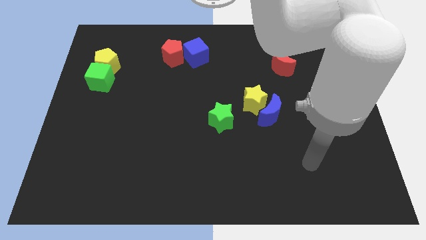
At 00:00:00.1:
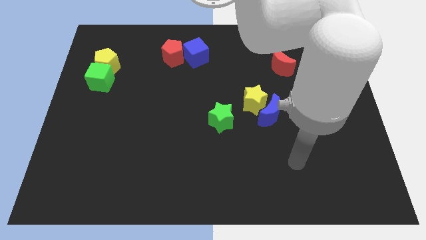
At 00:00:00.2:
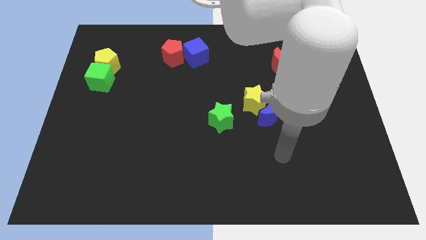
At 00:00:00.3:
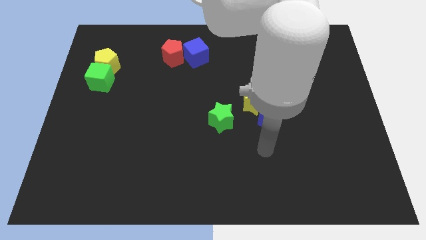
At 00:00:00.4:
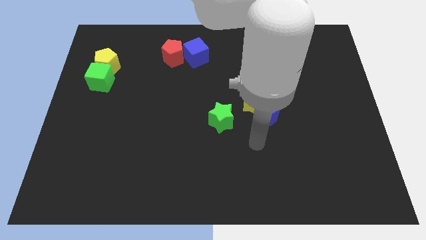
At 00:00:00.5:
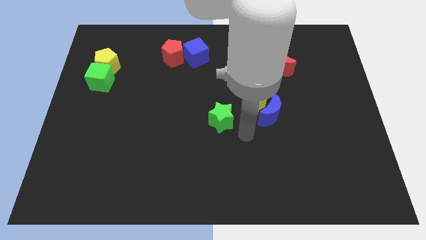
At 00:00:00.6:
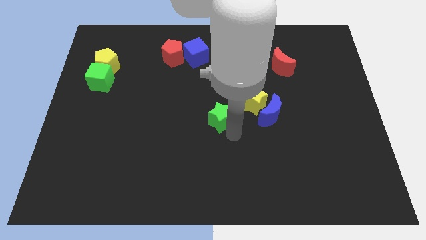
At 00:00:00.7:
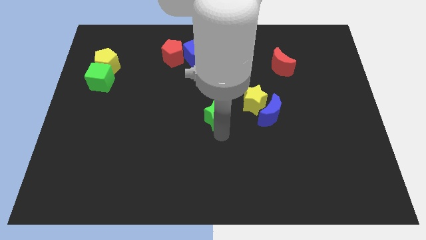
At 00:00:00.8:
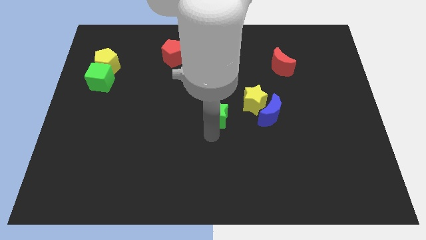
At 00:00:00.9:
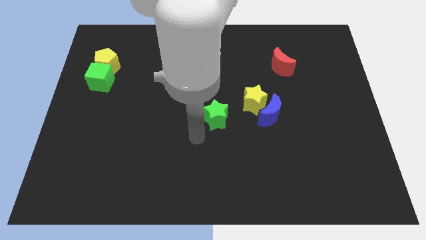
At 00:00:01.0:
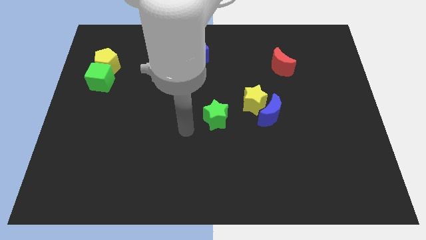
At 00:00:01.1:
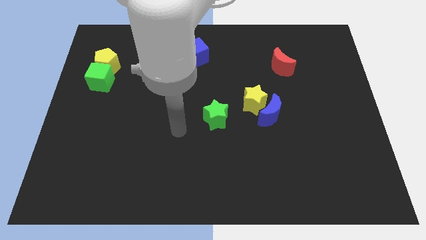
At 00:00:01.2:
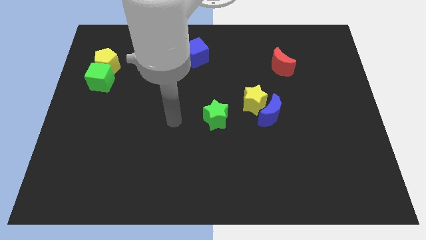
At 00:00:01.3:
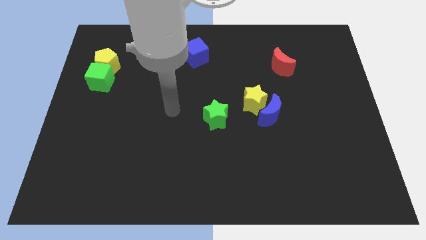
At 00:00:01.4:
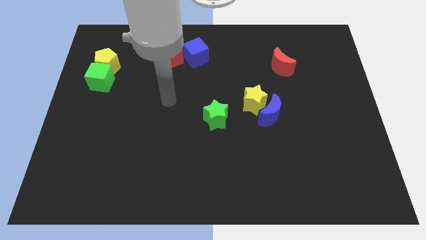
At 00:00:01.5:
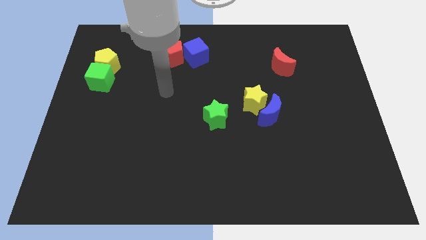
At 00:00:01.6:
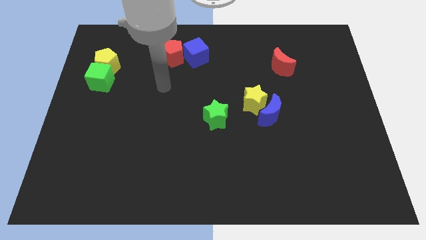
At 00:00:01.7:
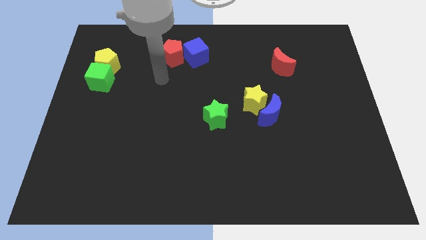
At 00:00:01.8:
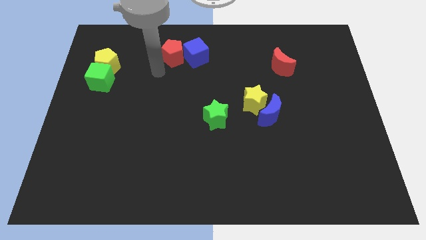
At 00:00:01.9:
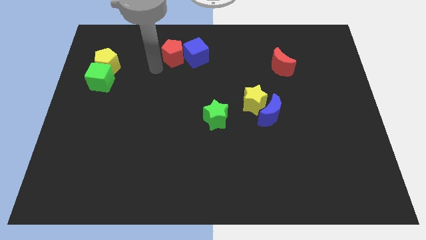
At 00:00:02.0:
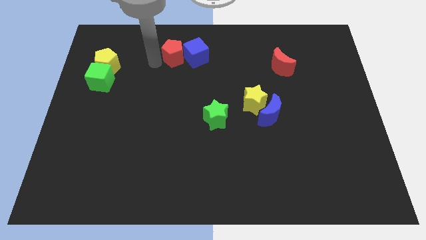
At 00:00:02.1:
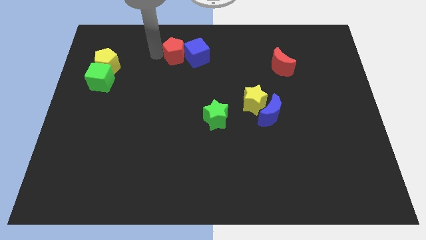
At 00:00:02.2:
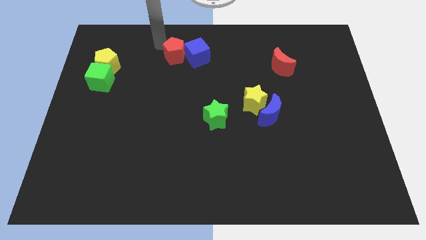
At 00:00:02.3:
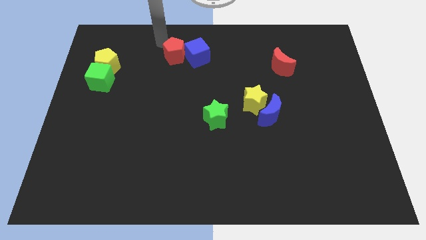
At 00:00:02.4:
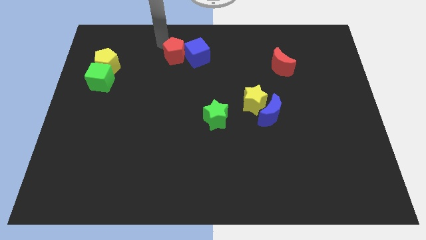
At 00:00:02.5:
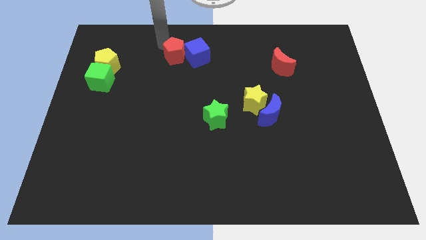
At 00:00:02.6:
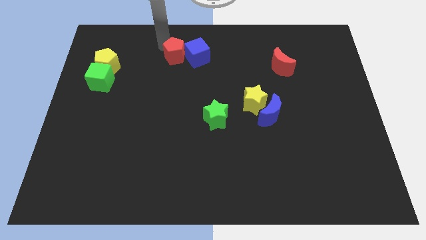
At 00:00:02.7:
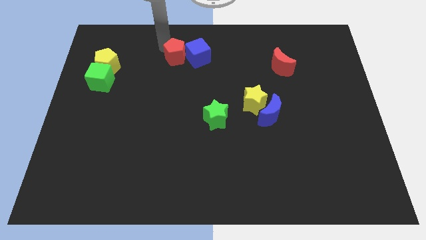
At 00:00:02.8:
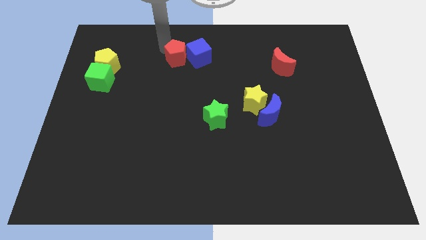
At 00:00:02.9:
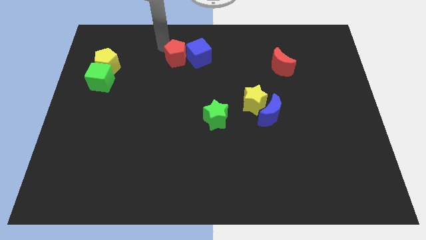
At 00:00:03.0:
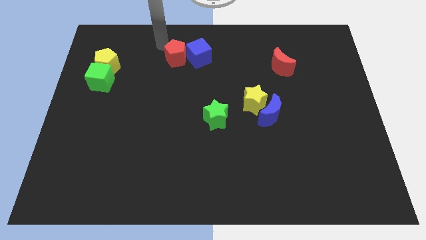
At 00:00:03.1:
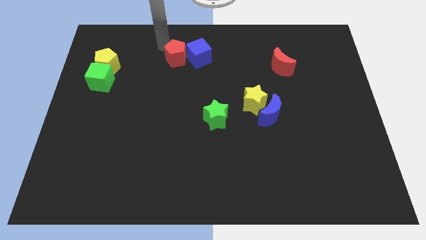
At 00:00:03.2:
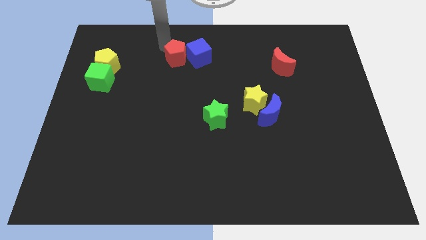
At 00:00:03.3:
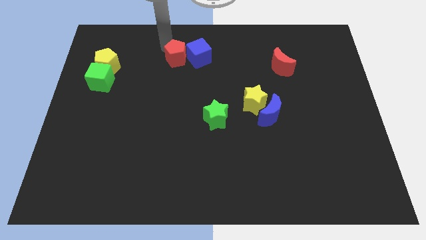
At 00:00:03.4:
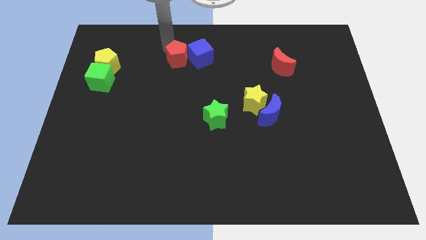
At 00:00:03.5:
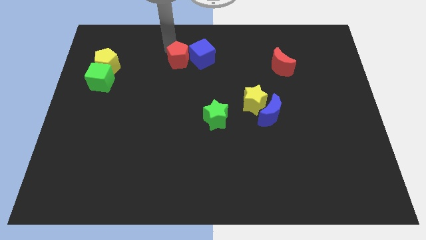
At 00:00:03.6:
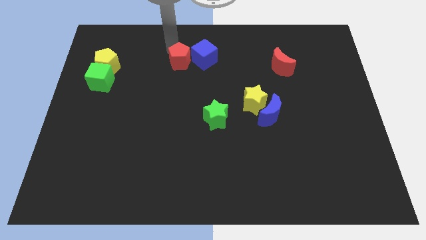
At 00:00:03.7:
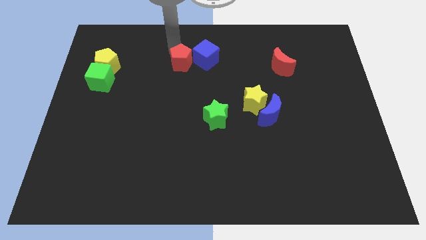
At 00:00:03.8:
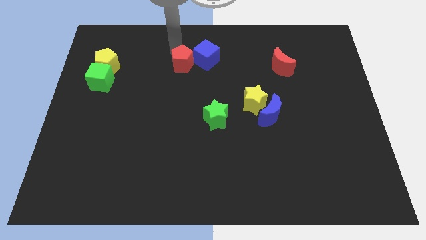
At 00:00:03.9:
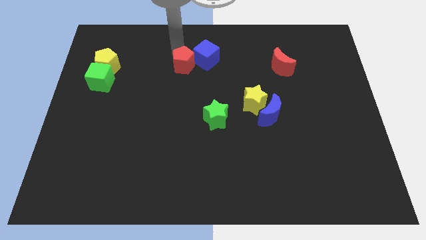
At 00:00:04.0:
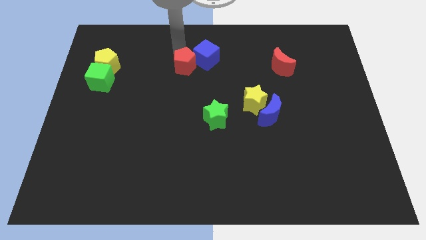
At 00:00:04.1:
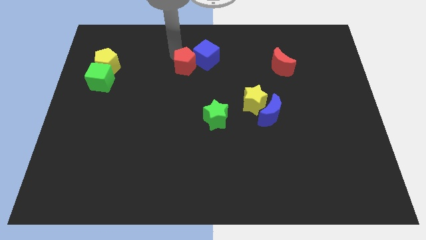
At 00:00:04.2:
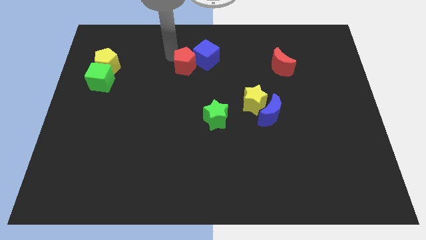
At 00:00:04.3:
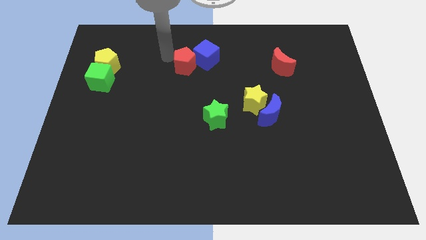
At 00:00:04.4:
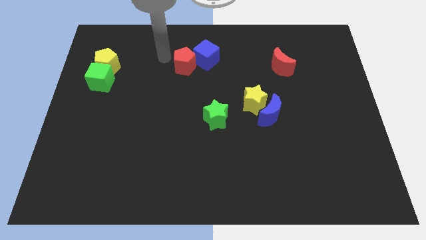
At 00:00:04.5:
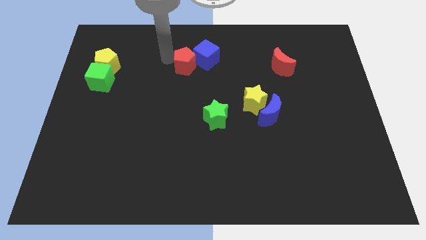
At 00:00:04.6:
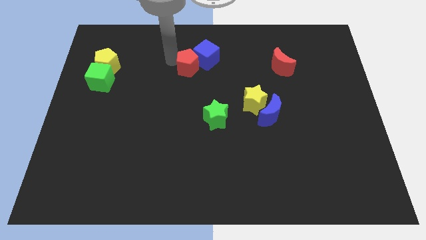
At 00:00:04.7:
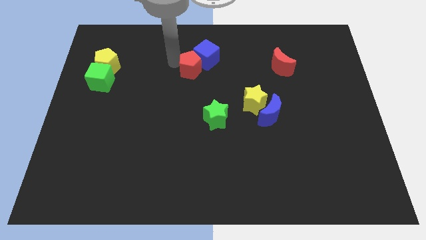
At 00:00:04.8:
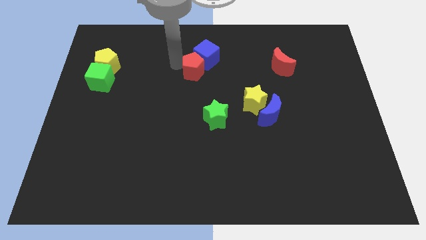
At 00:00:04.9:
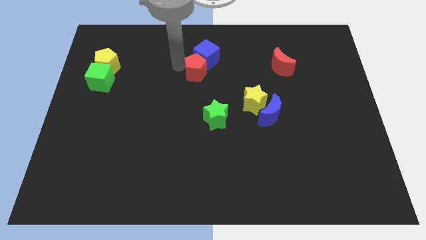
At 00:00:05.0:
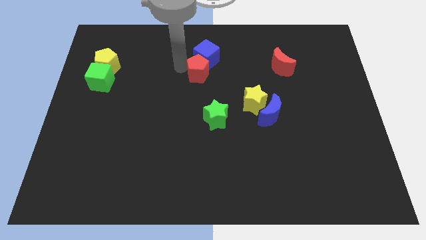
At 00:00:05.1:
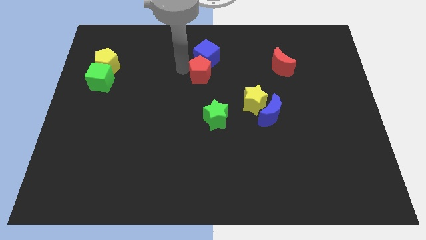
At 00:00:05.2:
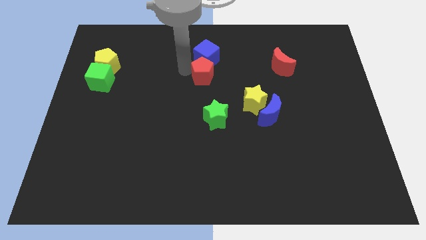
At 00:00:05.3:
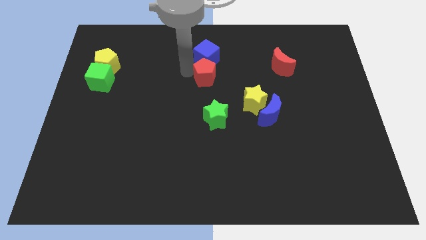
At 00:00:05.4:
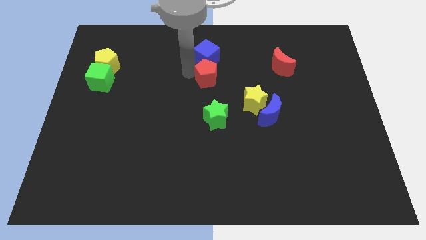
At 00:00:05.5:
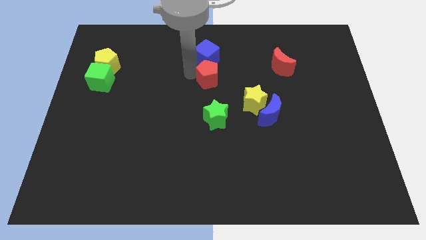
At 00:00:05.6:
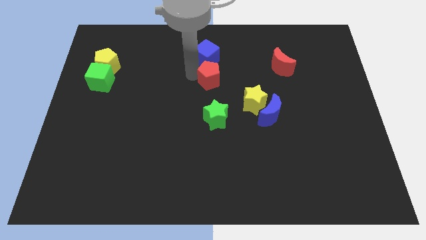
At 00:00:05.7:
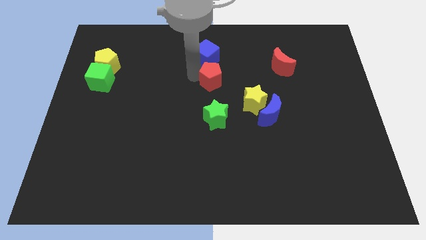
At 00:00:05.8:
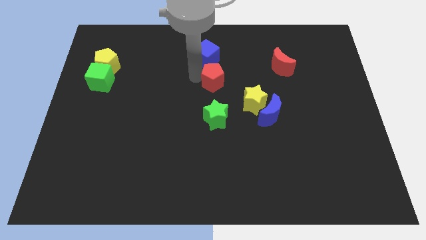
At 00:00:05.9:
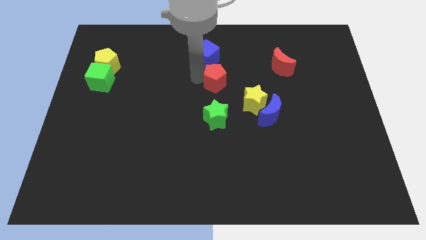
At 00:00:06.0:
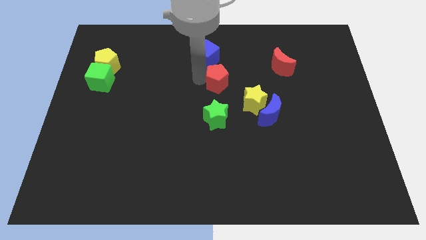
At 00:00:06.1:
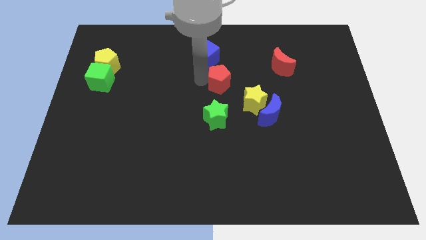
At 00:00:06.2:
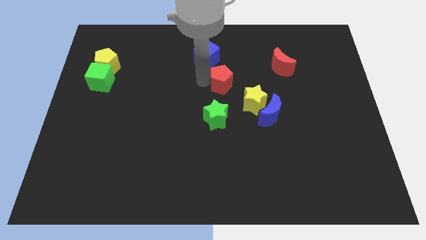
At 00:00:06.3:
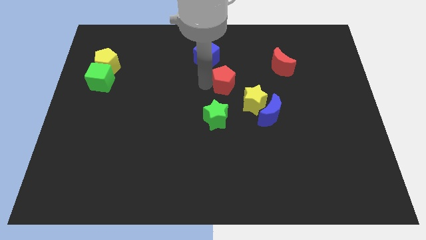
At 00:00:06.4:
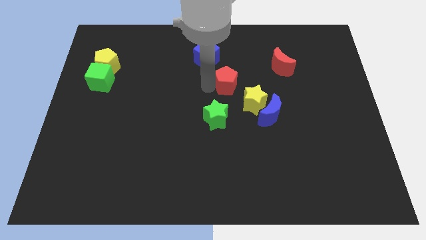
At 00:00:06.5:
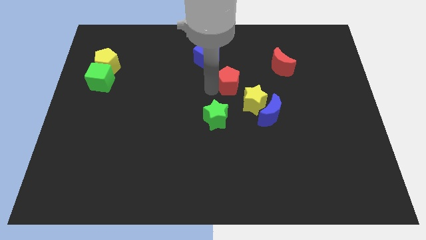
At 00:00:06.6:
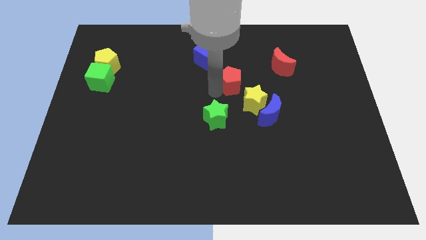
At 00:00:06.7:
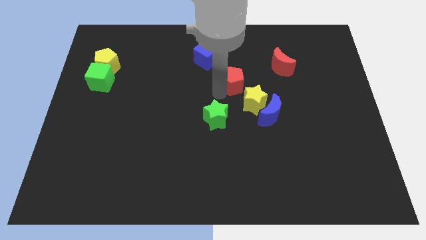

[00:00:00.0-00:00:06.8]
move the red pentagon above the yellow star
